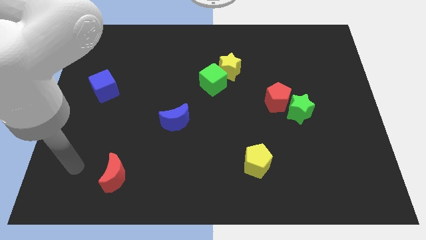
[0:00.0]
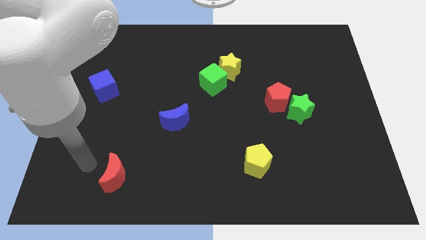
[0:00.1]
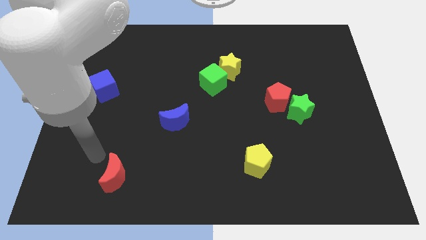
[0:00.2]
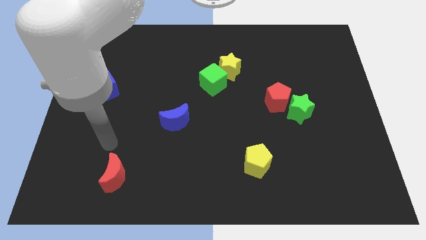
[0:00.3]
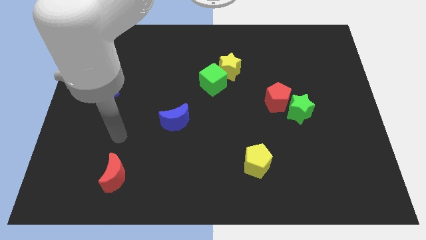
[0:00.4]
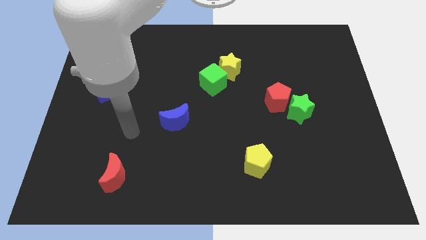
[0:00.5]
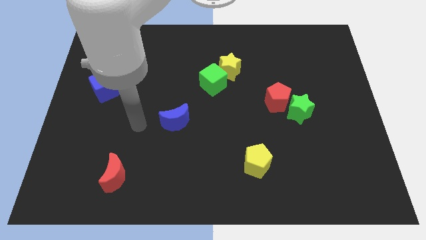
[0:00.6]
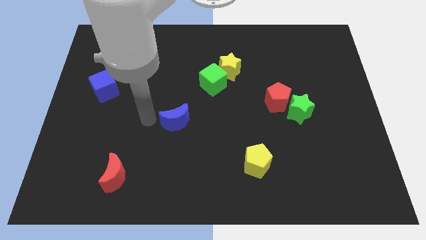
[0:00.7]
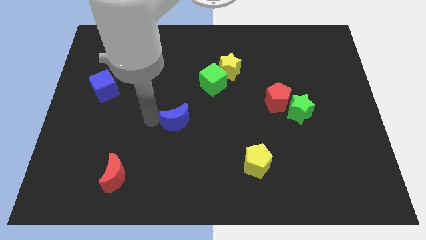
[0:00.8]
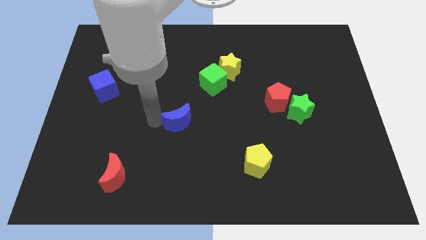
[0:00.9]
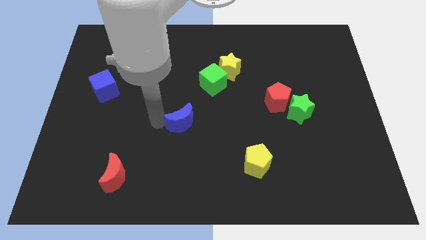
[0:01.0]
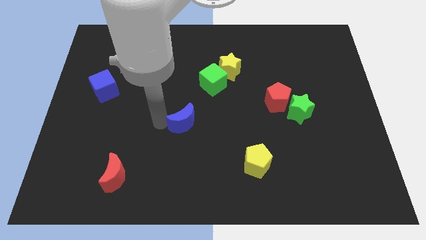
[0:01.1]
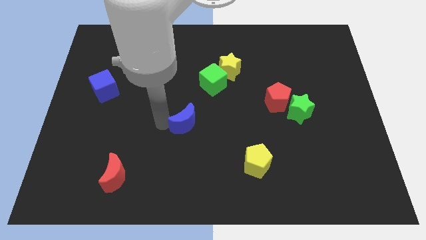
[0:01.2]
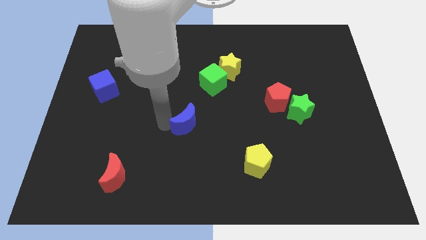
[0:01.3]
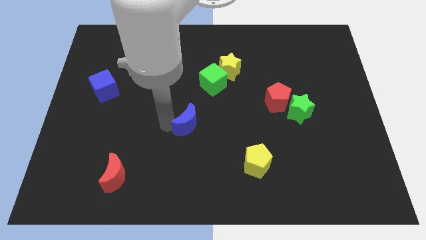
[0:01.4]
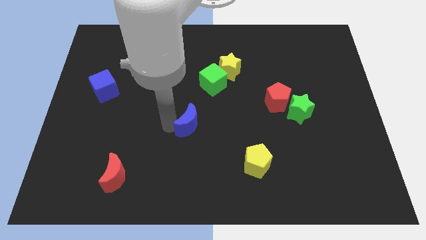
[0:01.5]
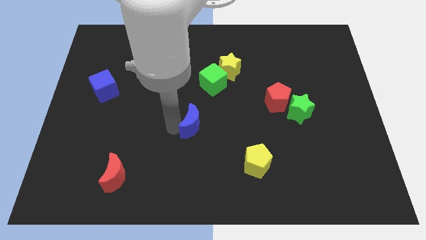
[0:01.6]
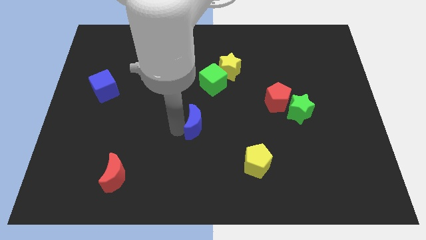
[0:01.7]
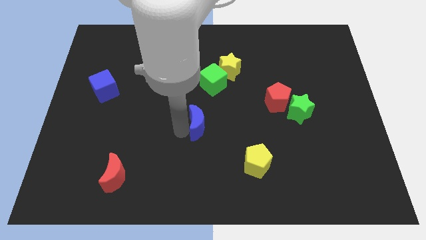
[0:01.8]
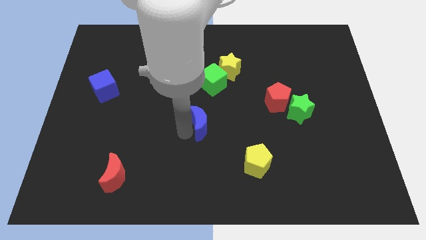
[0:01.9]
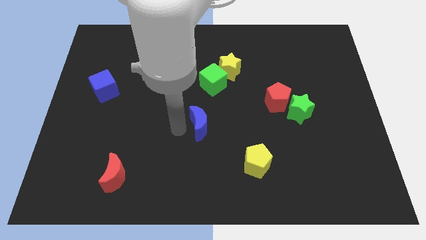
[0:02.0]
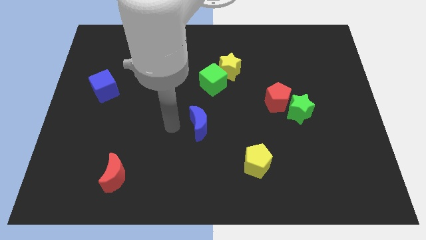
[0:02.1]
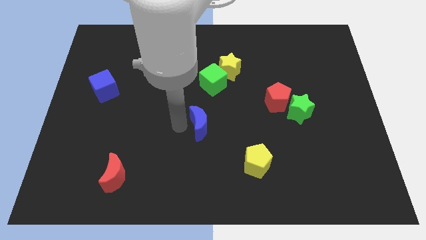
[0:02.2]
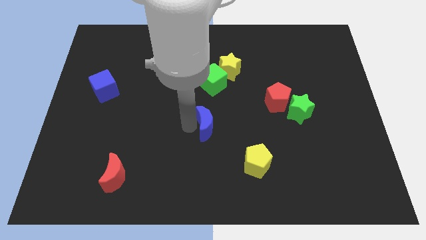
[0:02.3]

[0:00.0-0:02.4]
push the blue moon somewhat to the right

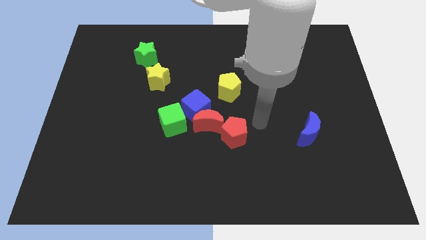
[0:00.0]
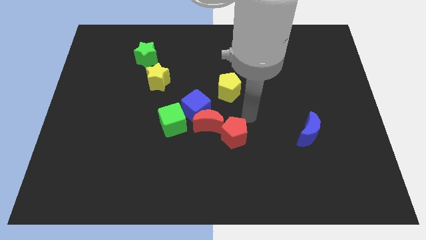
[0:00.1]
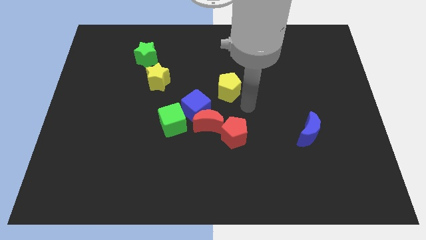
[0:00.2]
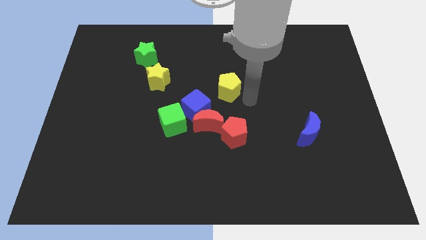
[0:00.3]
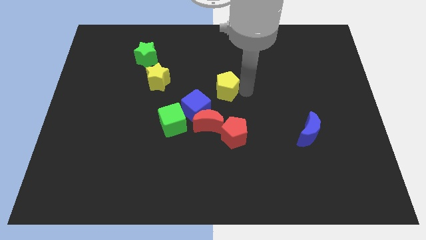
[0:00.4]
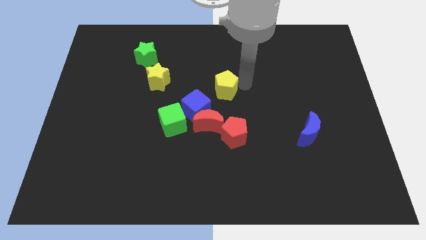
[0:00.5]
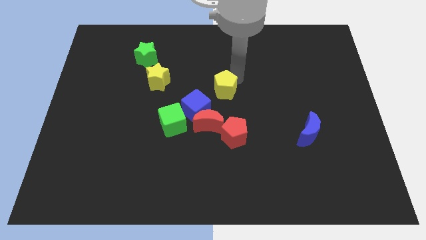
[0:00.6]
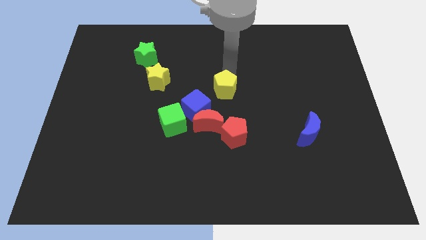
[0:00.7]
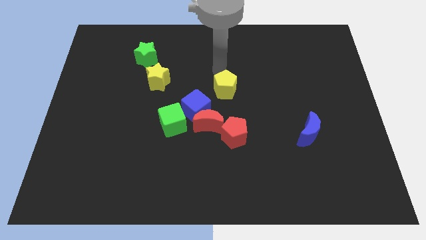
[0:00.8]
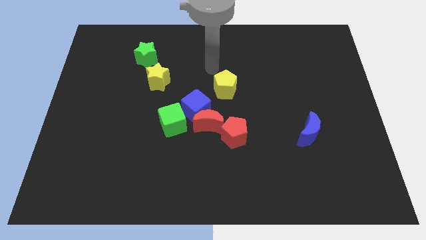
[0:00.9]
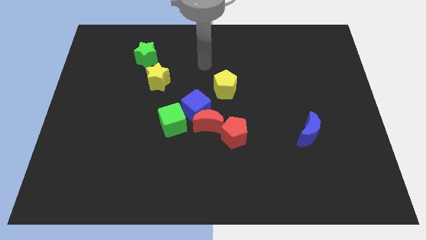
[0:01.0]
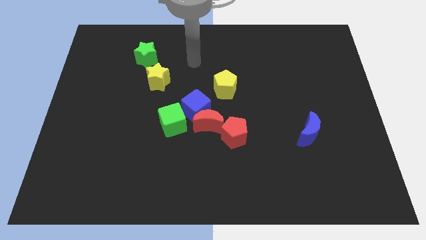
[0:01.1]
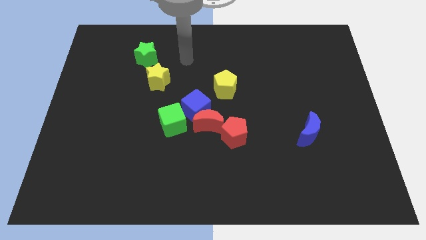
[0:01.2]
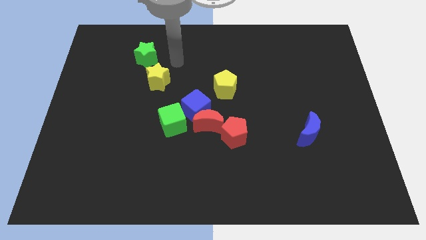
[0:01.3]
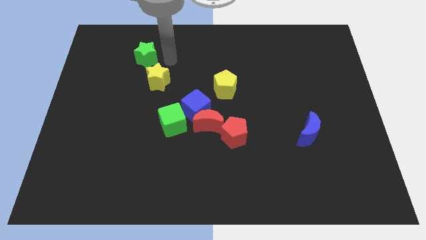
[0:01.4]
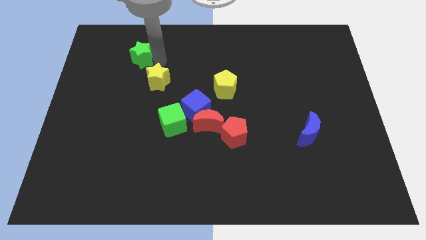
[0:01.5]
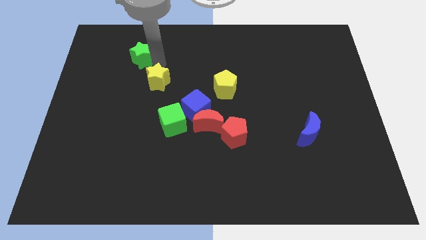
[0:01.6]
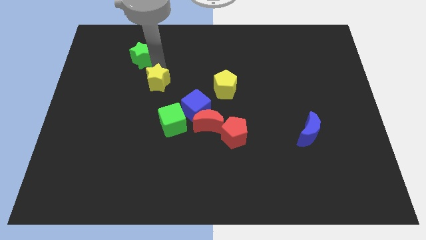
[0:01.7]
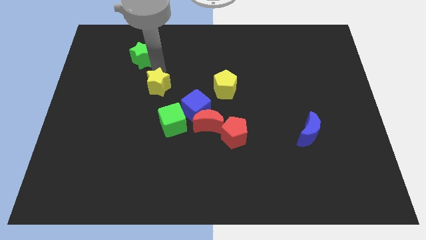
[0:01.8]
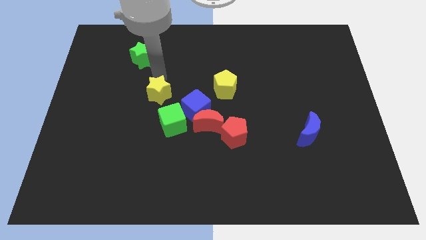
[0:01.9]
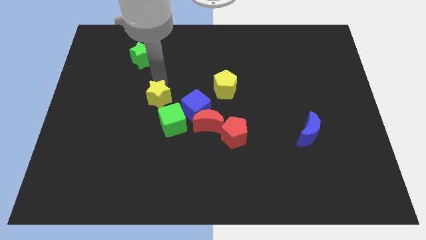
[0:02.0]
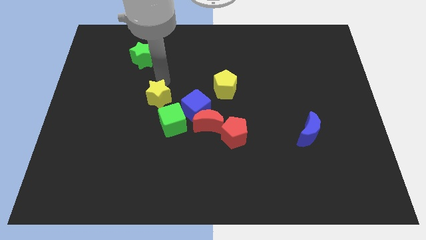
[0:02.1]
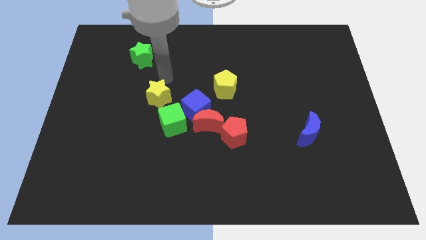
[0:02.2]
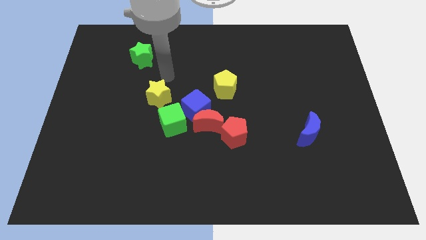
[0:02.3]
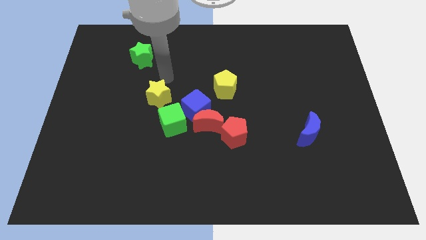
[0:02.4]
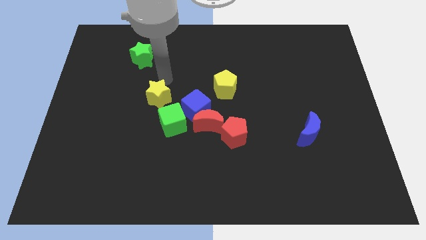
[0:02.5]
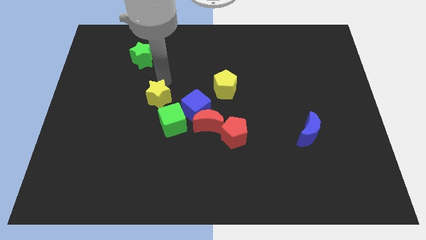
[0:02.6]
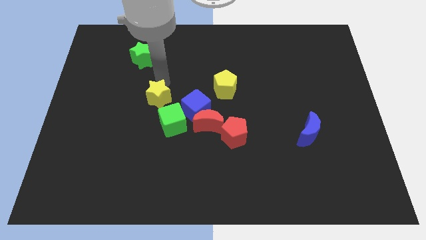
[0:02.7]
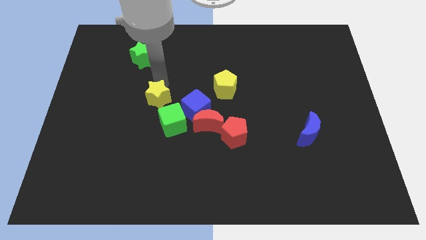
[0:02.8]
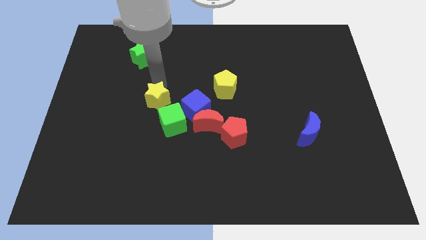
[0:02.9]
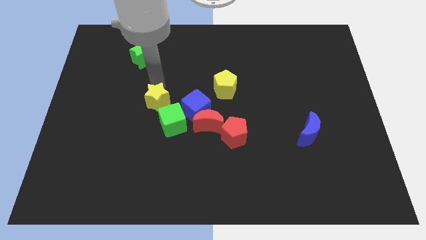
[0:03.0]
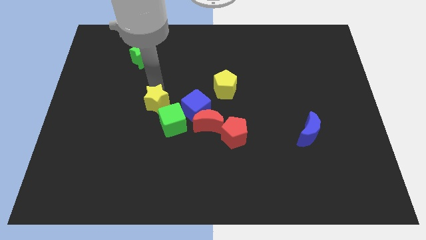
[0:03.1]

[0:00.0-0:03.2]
push the yellow star downwards somewhat

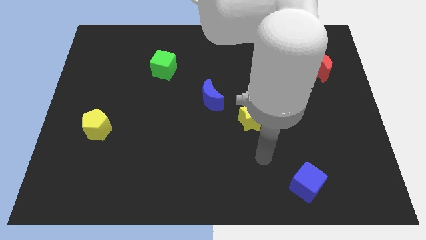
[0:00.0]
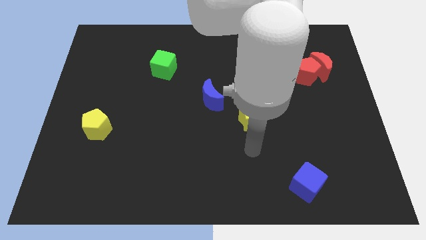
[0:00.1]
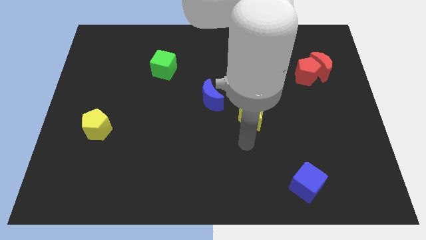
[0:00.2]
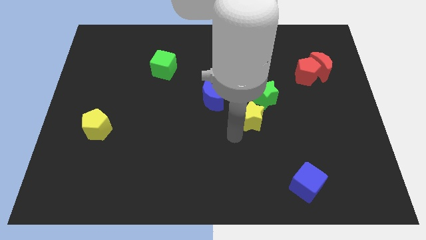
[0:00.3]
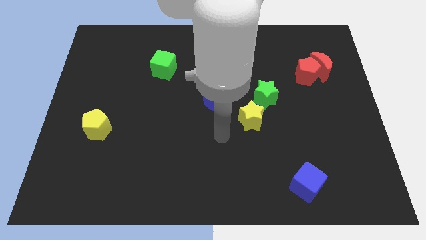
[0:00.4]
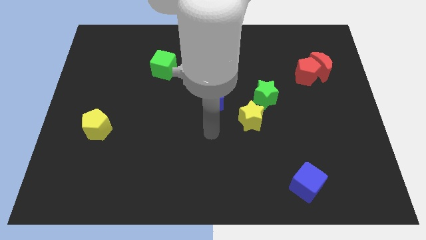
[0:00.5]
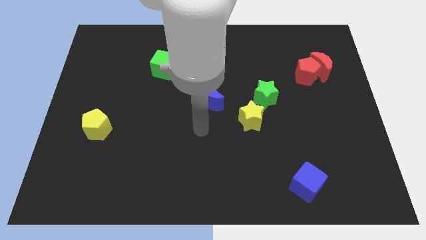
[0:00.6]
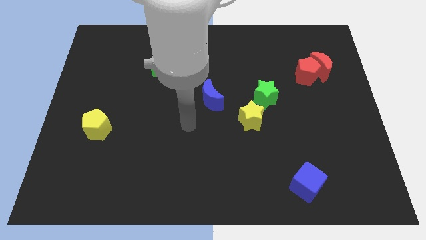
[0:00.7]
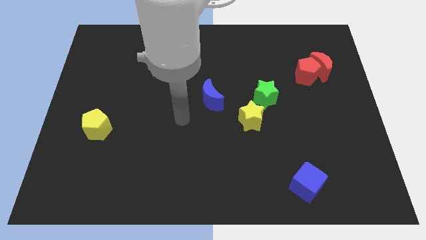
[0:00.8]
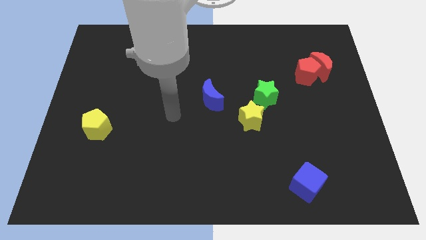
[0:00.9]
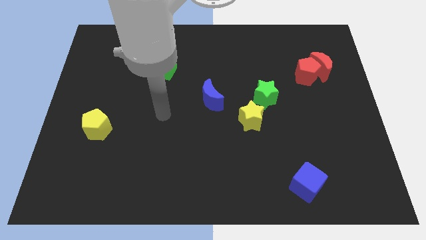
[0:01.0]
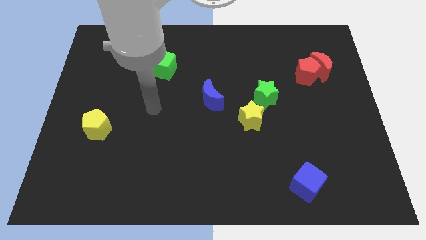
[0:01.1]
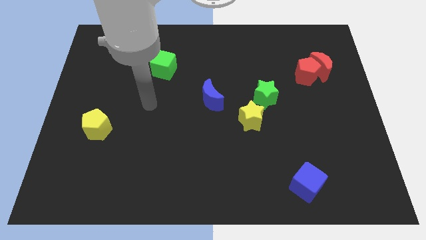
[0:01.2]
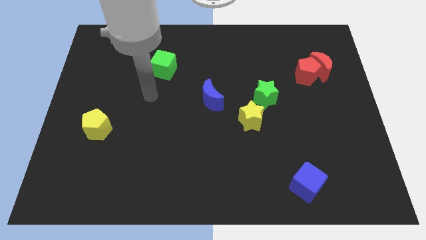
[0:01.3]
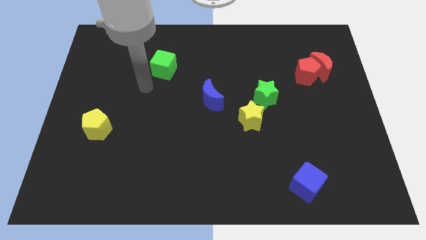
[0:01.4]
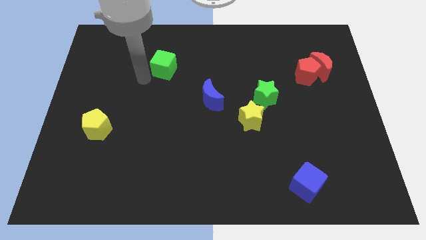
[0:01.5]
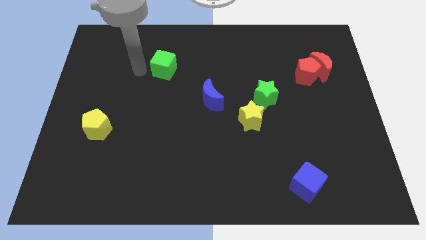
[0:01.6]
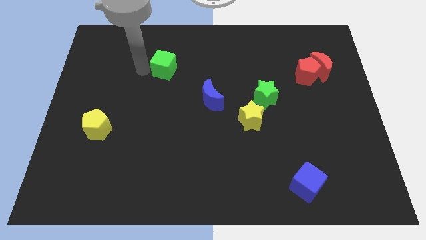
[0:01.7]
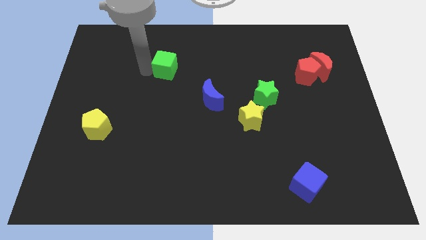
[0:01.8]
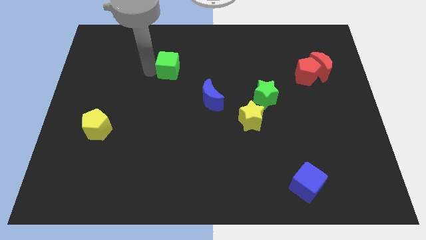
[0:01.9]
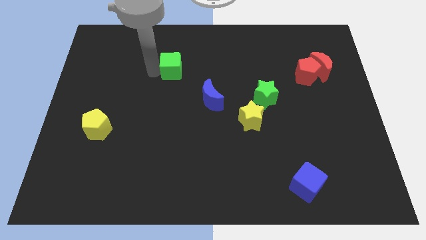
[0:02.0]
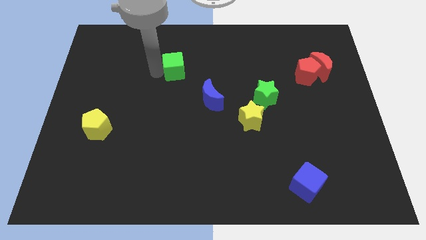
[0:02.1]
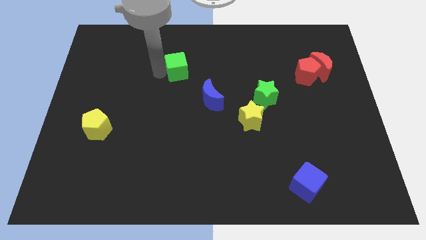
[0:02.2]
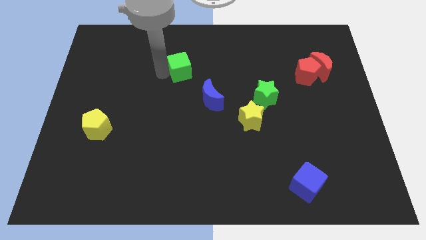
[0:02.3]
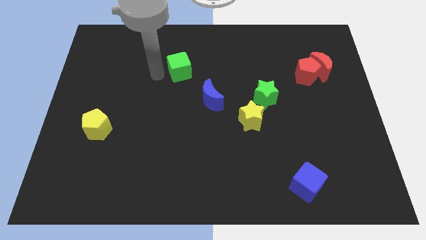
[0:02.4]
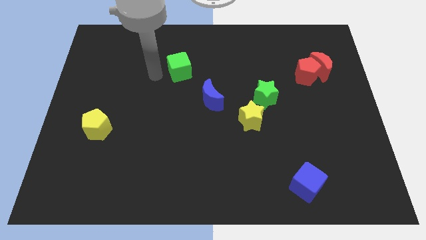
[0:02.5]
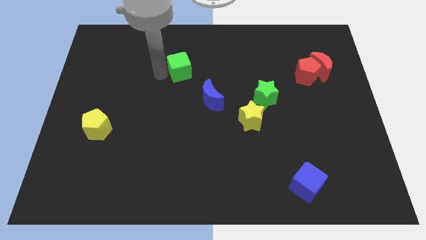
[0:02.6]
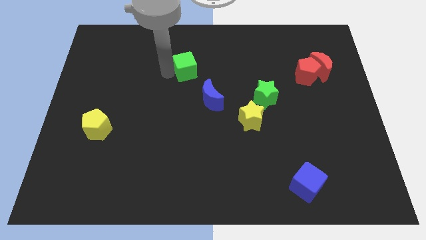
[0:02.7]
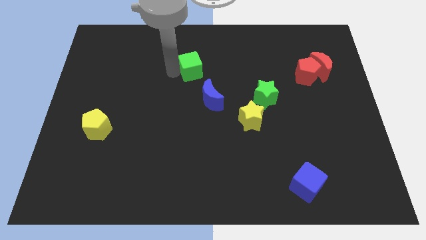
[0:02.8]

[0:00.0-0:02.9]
move the green cube to the right a little
